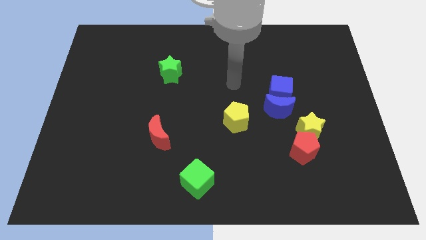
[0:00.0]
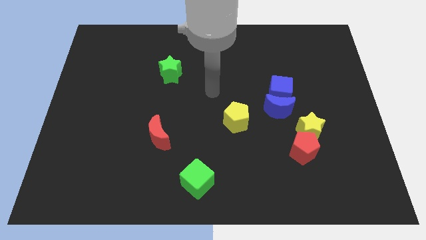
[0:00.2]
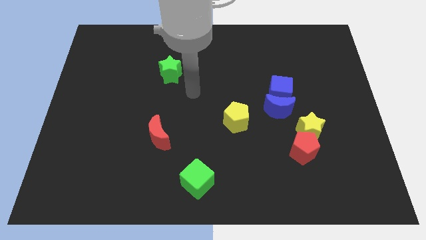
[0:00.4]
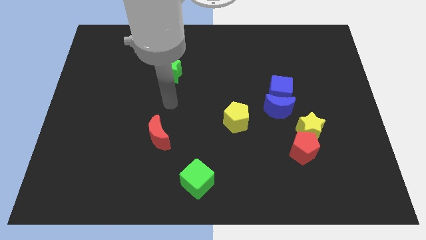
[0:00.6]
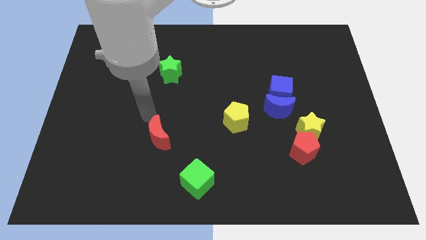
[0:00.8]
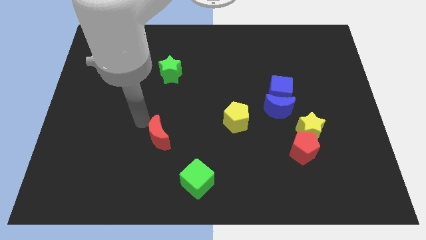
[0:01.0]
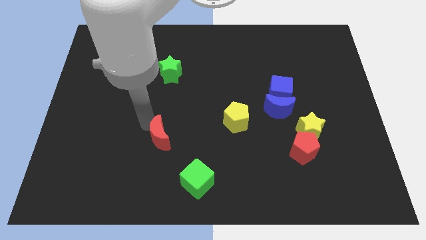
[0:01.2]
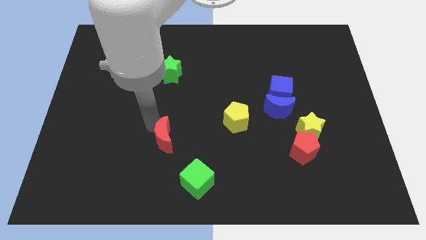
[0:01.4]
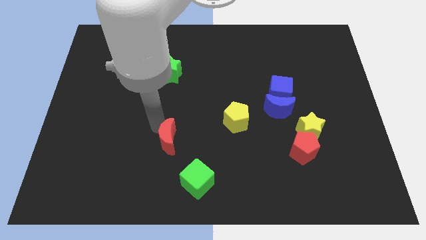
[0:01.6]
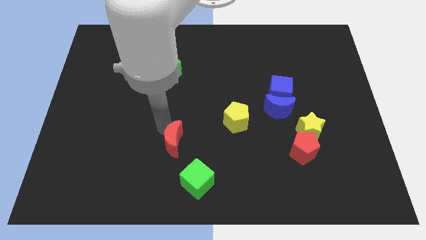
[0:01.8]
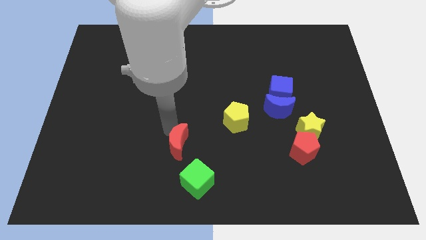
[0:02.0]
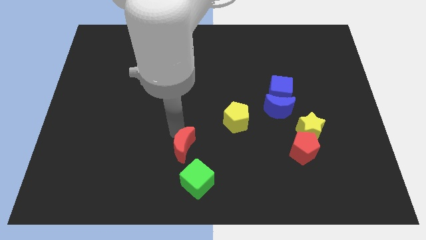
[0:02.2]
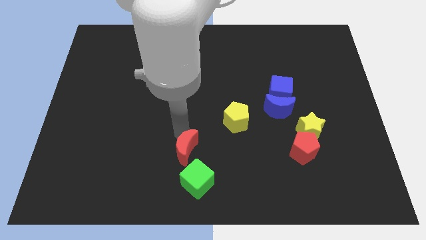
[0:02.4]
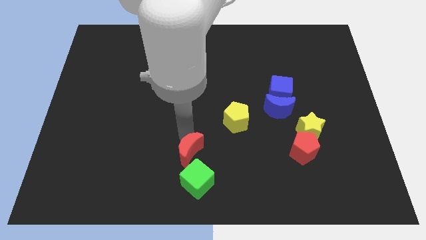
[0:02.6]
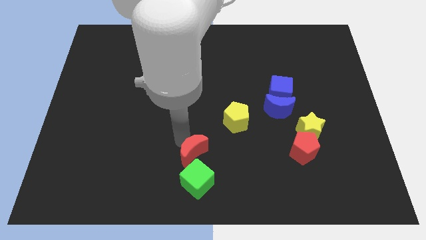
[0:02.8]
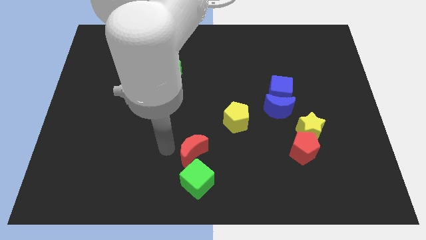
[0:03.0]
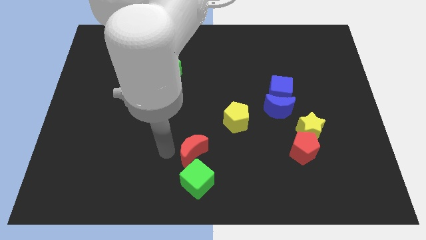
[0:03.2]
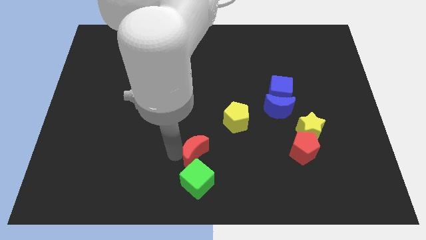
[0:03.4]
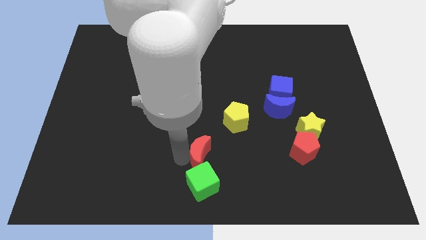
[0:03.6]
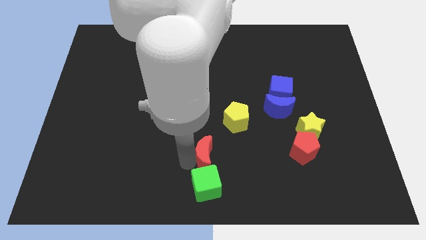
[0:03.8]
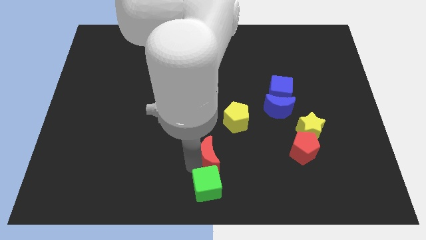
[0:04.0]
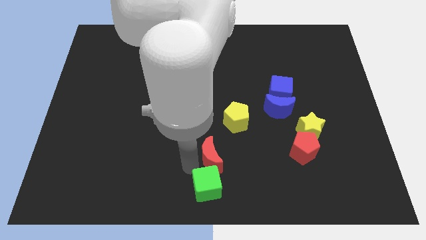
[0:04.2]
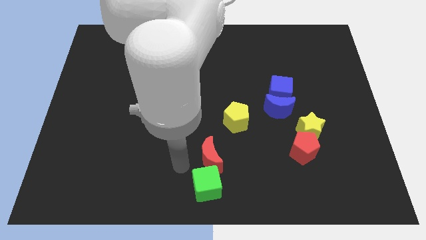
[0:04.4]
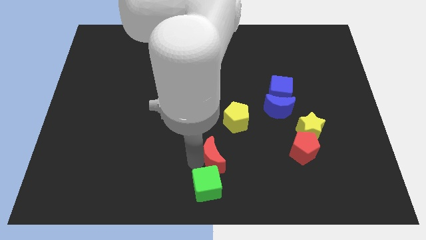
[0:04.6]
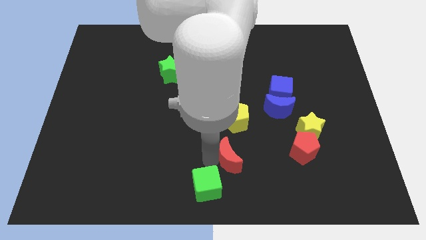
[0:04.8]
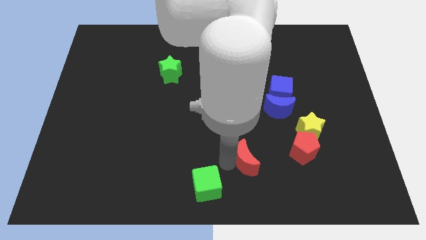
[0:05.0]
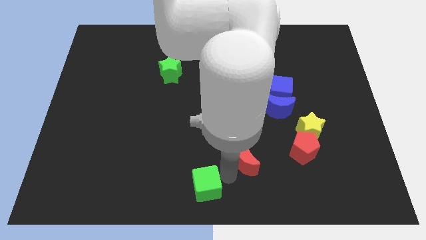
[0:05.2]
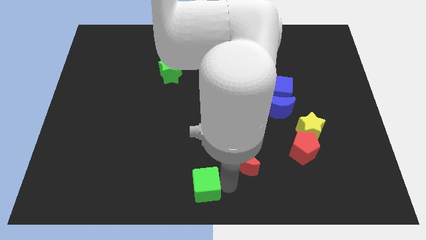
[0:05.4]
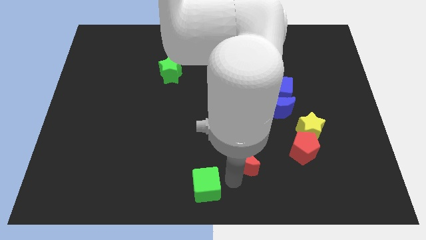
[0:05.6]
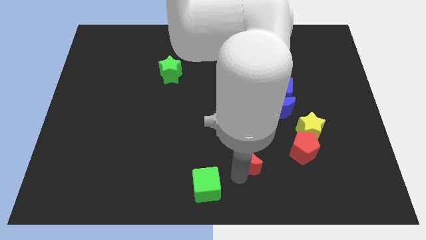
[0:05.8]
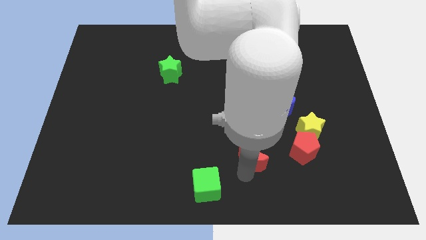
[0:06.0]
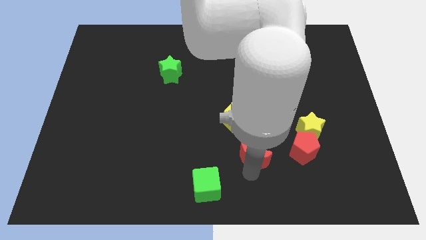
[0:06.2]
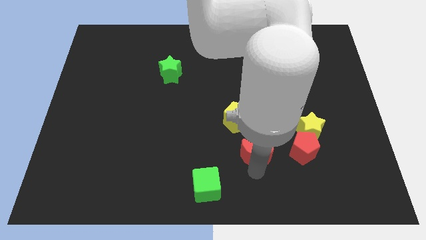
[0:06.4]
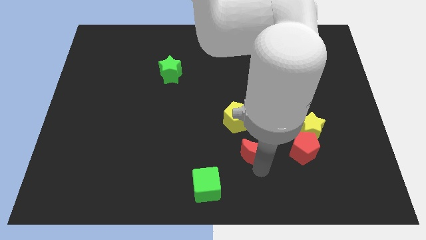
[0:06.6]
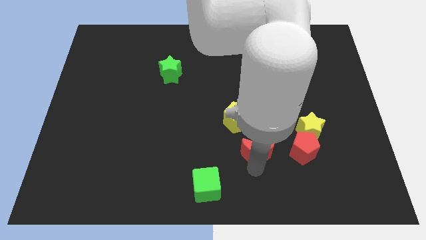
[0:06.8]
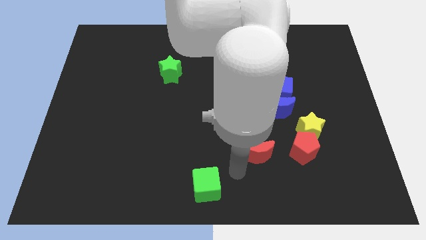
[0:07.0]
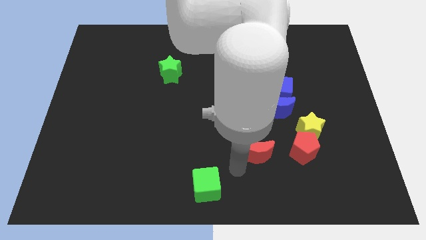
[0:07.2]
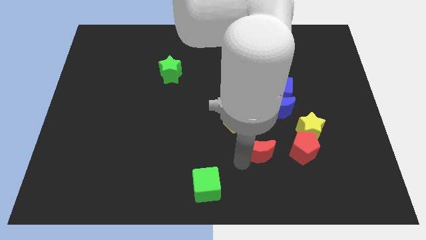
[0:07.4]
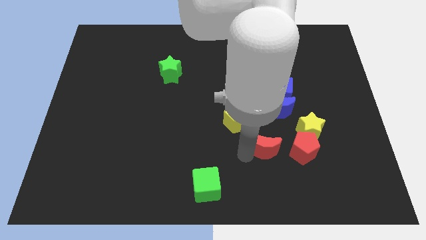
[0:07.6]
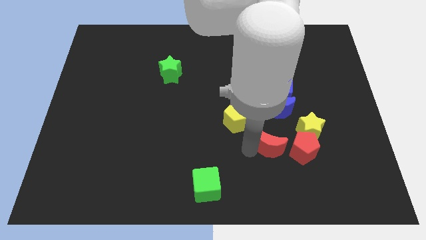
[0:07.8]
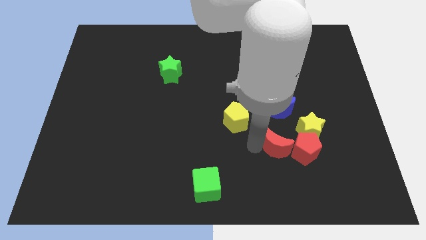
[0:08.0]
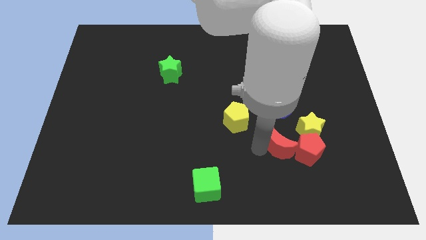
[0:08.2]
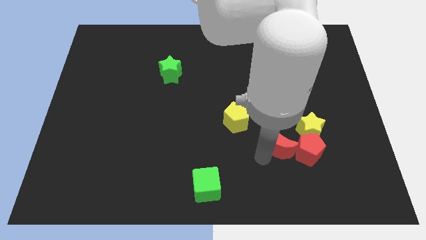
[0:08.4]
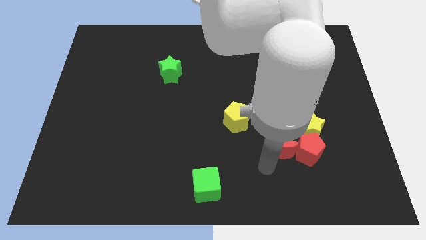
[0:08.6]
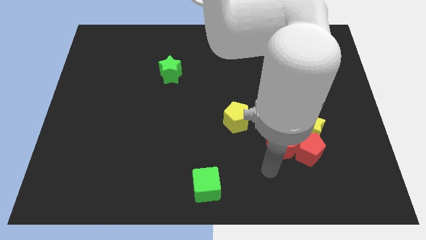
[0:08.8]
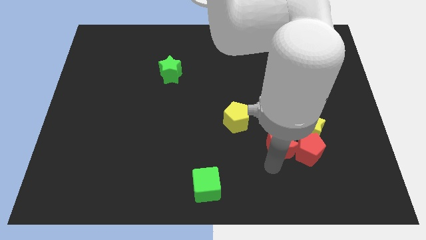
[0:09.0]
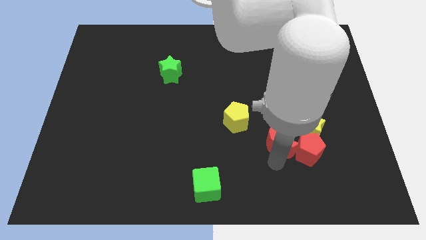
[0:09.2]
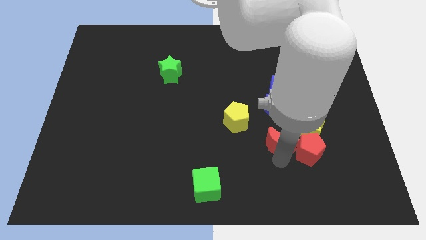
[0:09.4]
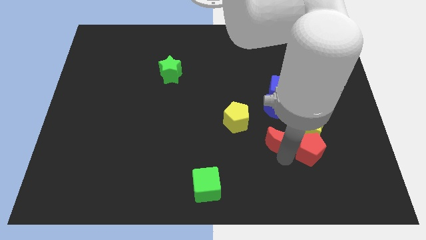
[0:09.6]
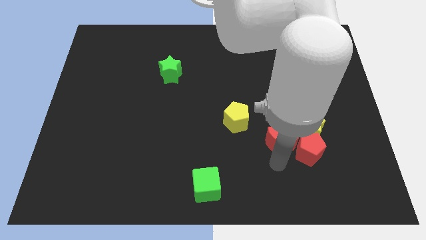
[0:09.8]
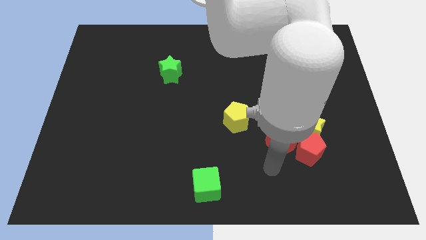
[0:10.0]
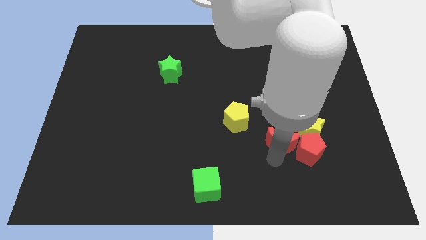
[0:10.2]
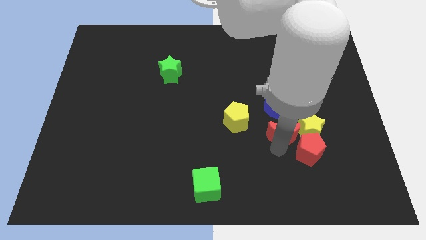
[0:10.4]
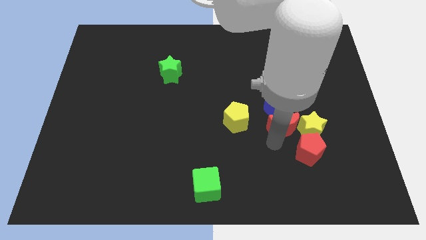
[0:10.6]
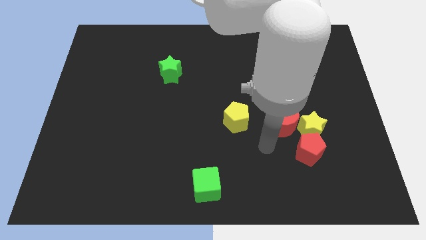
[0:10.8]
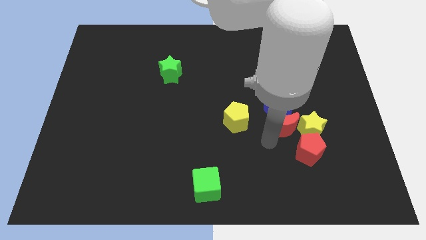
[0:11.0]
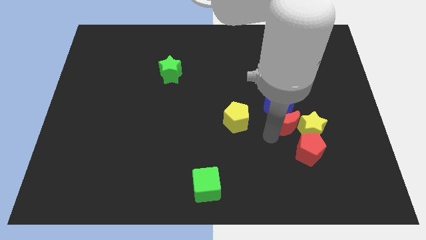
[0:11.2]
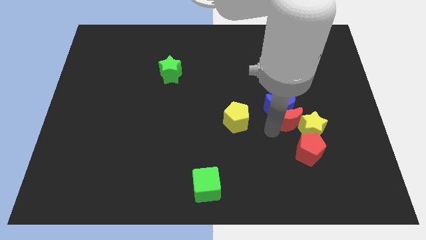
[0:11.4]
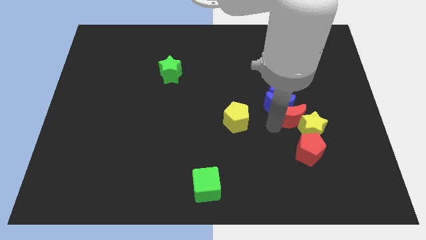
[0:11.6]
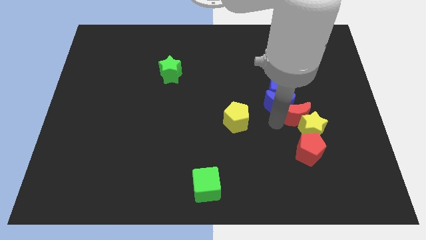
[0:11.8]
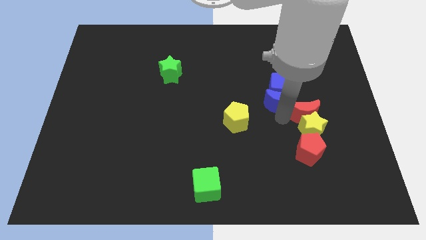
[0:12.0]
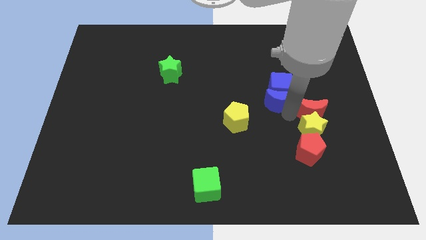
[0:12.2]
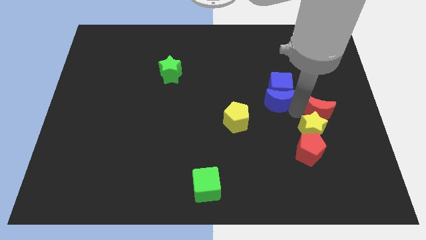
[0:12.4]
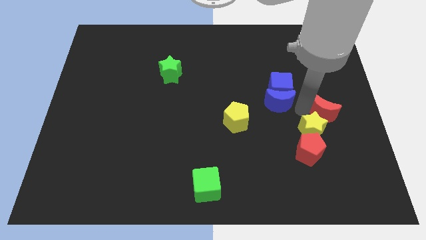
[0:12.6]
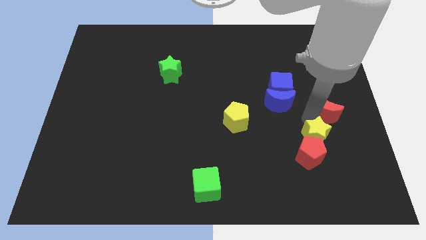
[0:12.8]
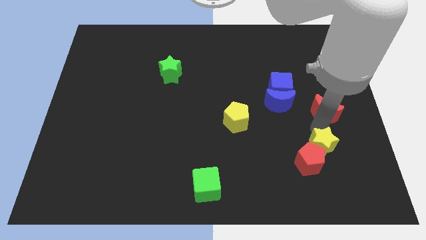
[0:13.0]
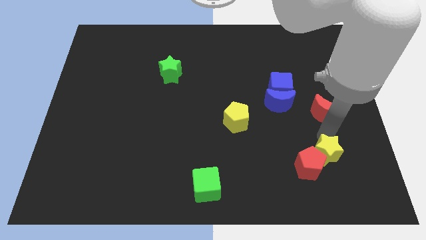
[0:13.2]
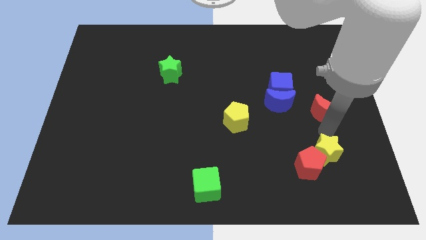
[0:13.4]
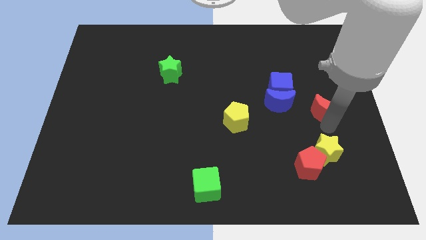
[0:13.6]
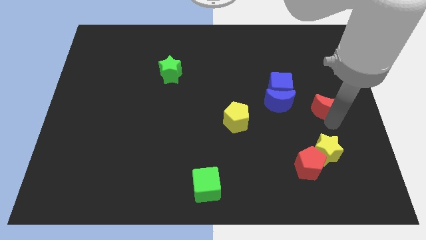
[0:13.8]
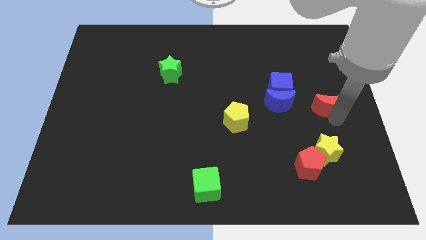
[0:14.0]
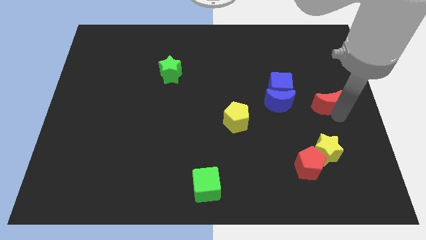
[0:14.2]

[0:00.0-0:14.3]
slide the red moon right of the blue cube
